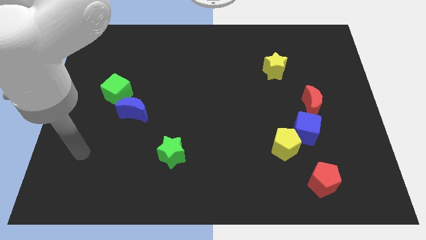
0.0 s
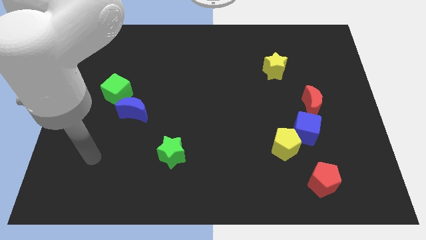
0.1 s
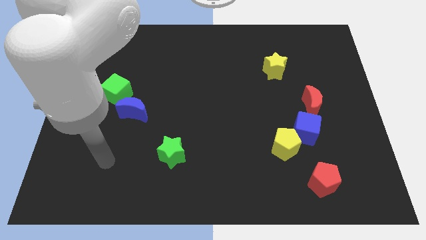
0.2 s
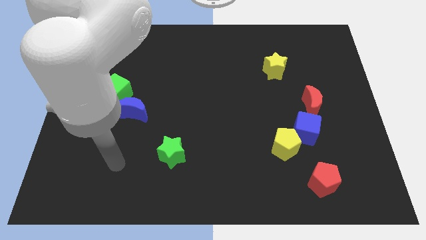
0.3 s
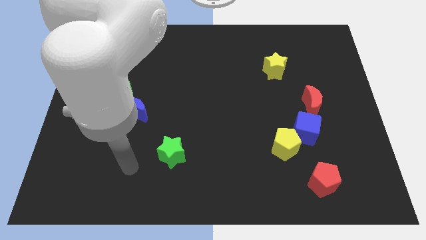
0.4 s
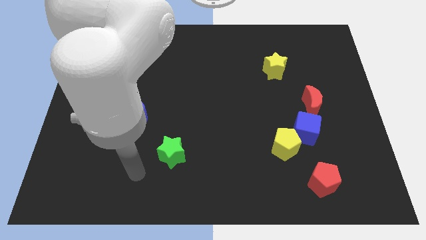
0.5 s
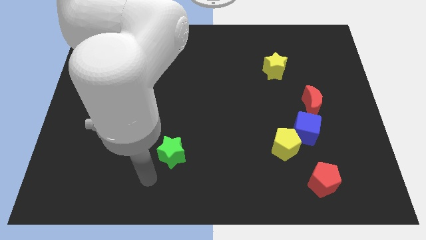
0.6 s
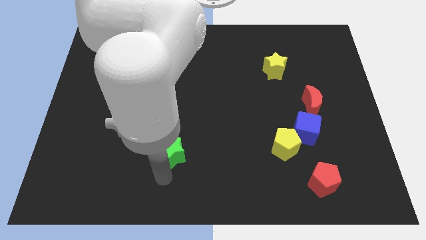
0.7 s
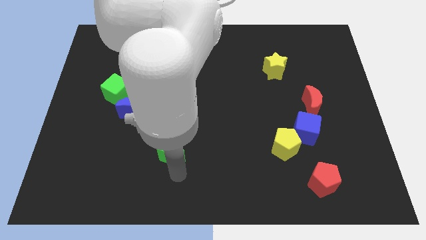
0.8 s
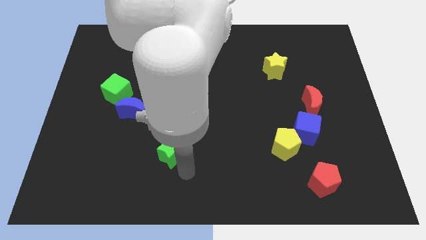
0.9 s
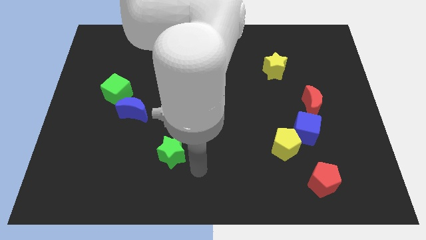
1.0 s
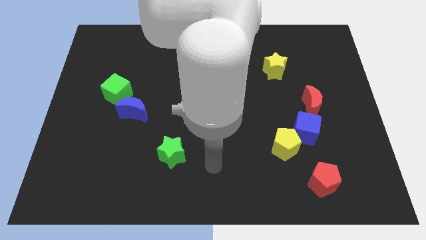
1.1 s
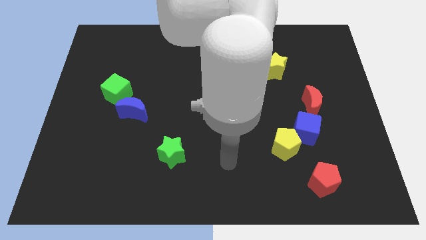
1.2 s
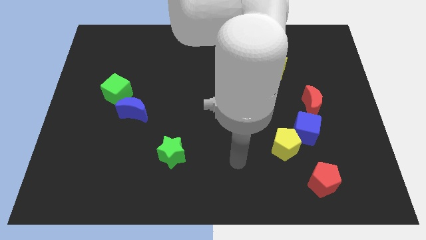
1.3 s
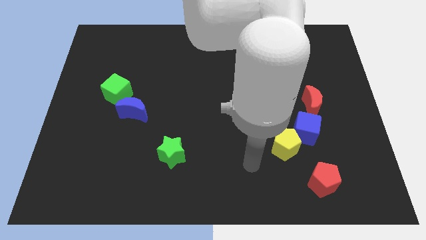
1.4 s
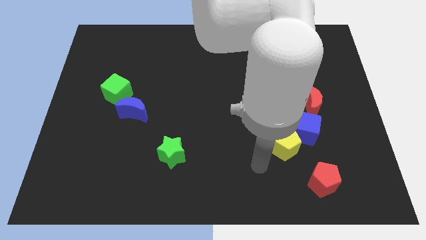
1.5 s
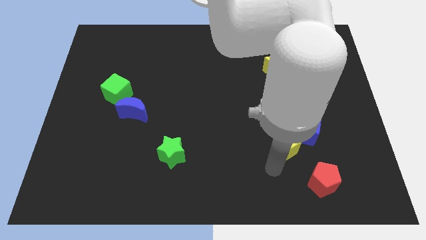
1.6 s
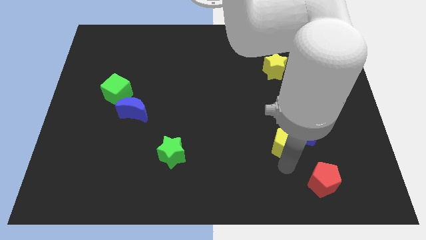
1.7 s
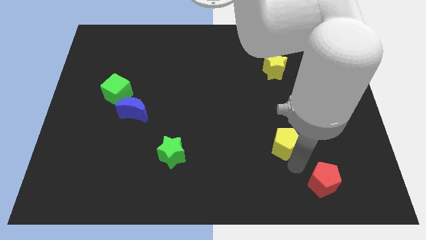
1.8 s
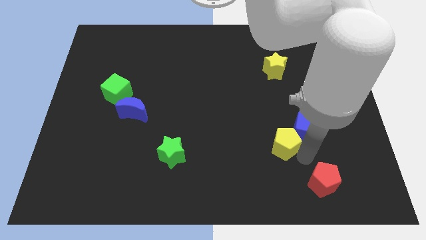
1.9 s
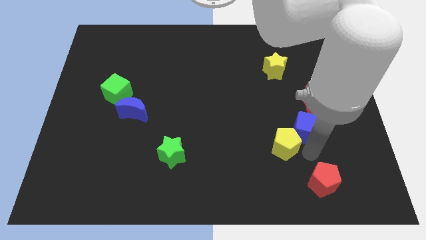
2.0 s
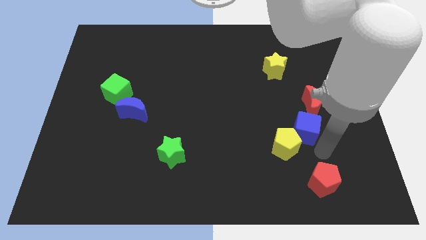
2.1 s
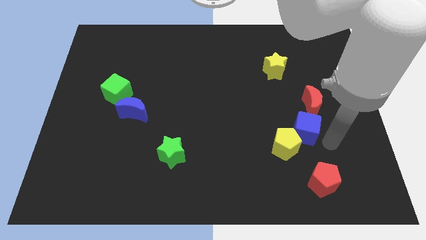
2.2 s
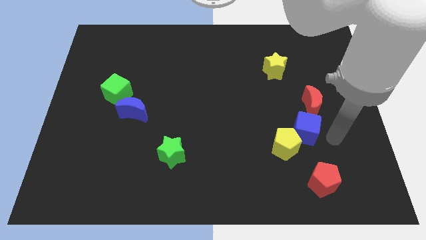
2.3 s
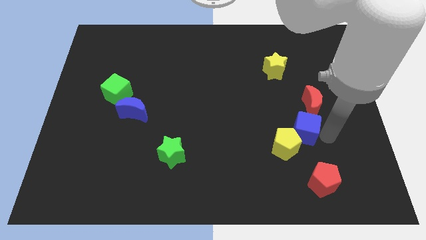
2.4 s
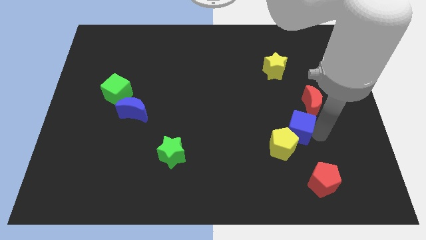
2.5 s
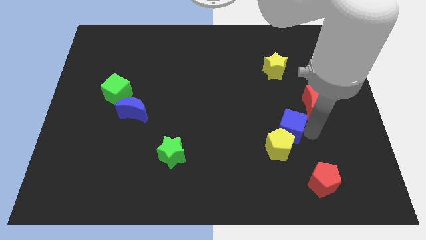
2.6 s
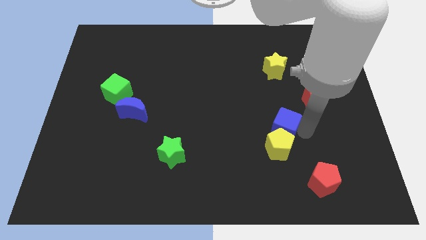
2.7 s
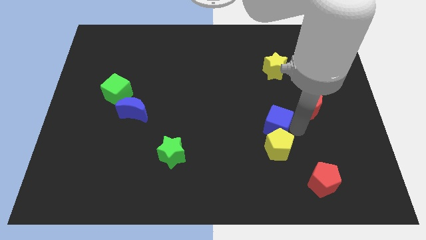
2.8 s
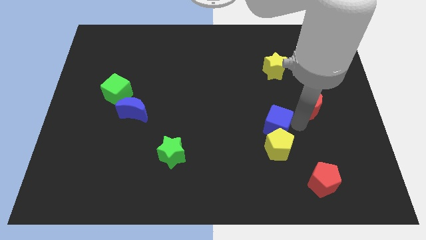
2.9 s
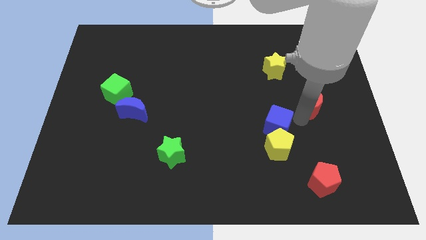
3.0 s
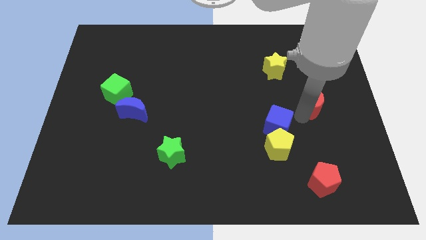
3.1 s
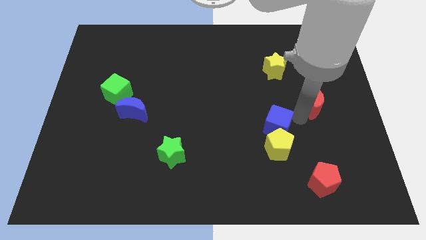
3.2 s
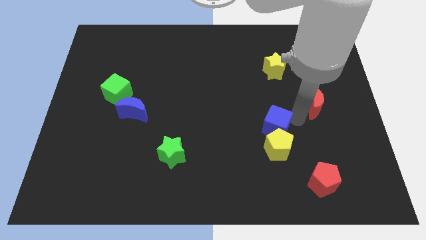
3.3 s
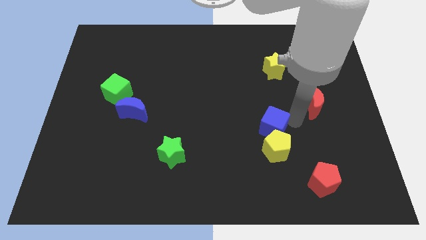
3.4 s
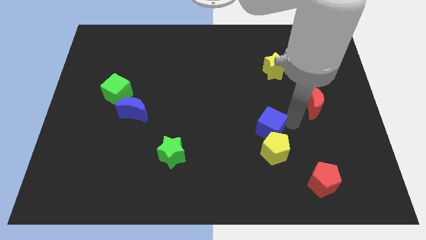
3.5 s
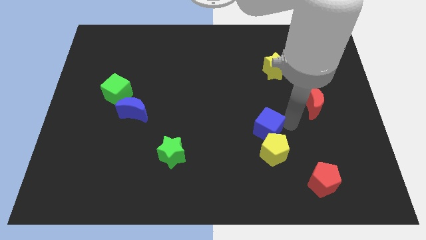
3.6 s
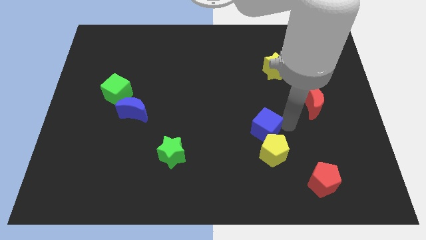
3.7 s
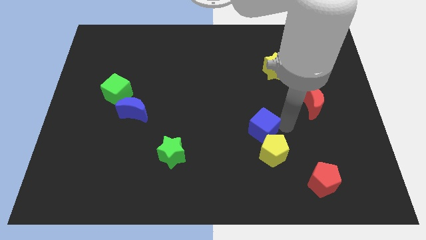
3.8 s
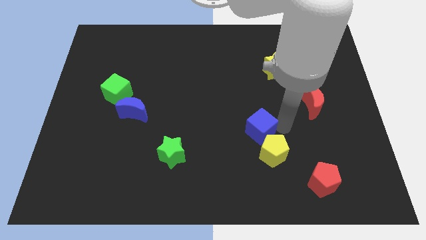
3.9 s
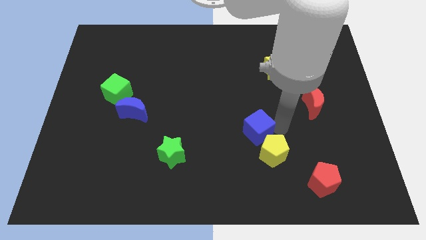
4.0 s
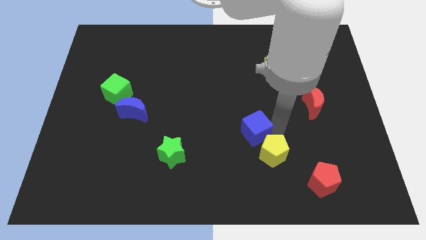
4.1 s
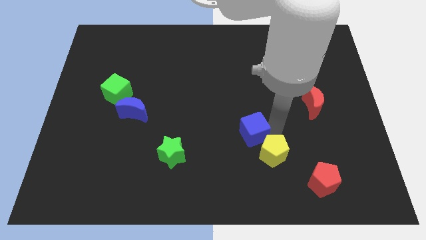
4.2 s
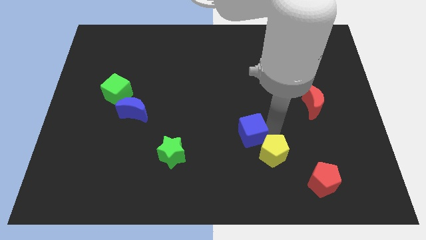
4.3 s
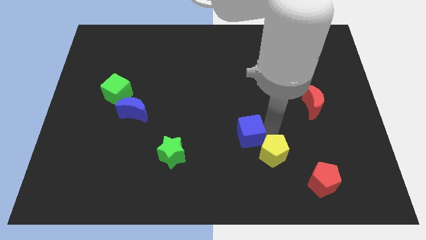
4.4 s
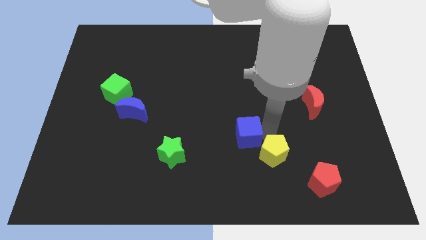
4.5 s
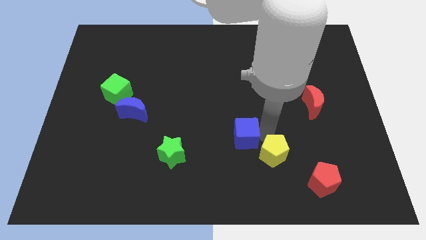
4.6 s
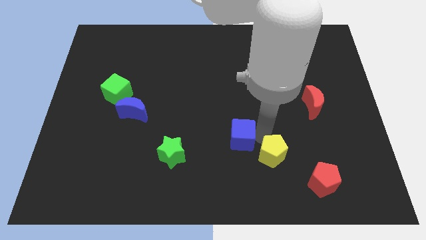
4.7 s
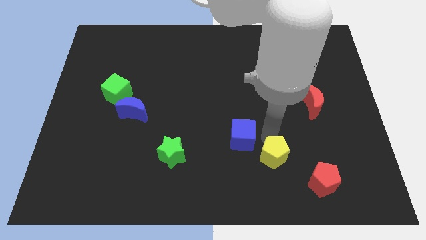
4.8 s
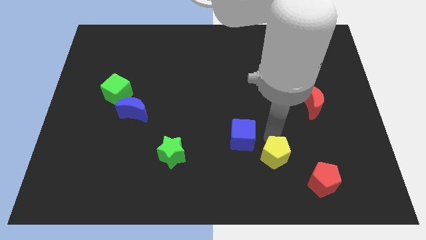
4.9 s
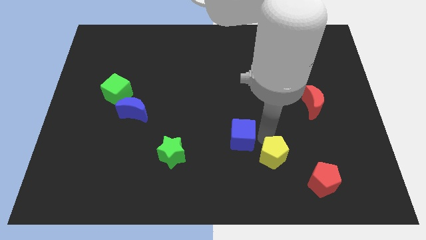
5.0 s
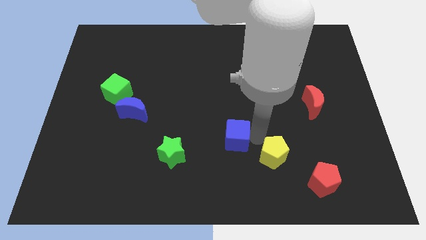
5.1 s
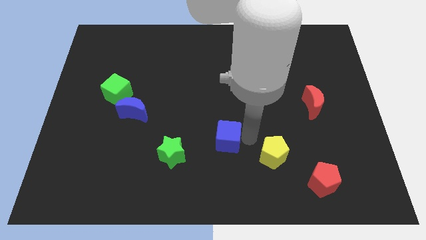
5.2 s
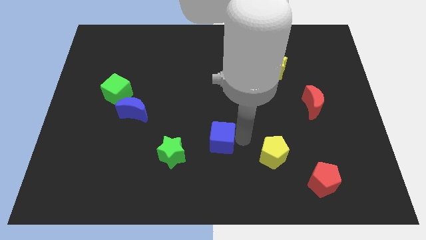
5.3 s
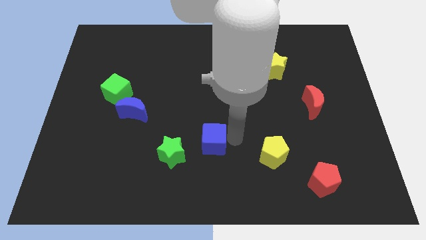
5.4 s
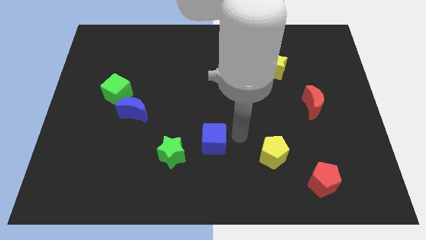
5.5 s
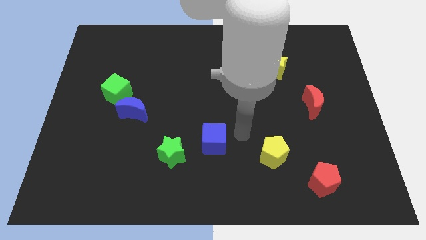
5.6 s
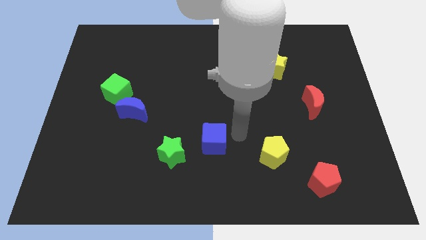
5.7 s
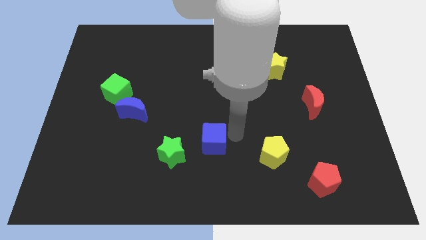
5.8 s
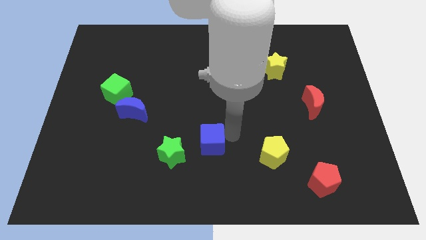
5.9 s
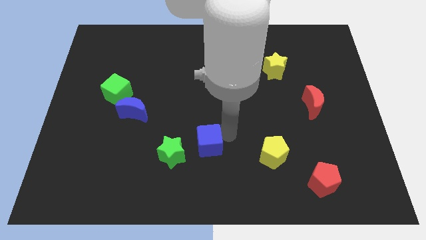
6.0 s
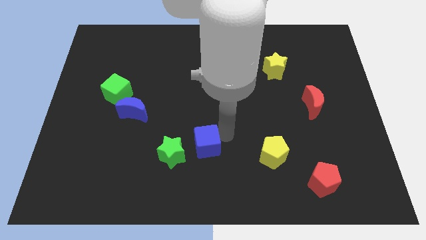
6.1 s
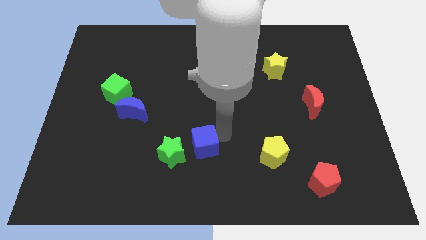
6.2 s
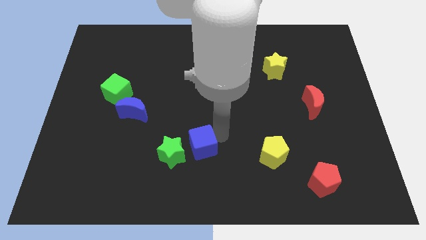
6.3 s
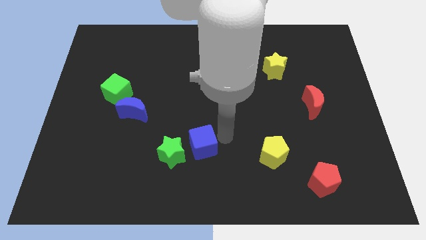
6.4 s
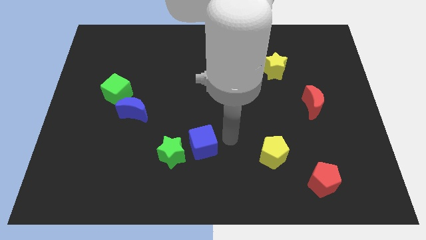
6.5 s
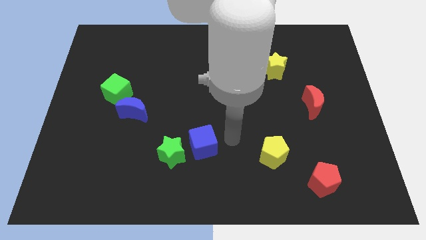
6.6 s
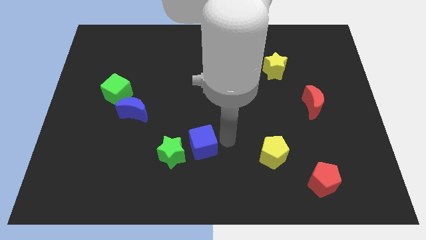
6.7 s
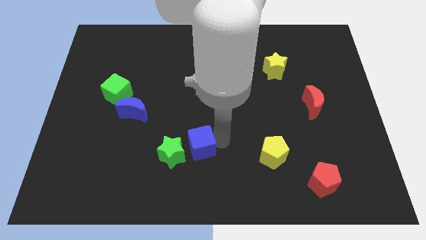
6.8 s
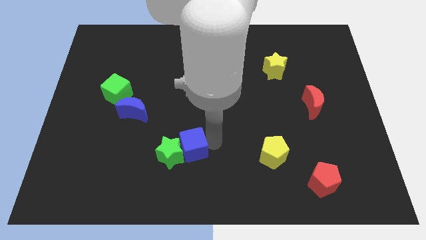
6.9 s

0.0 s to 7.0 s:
put the blue cube close to the green star
